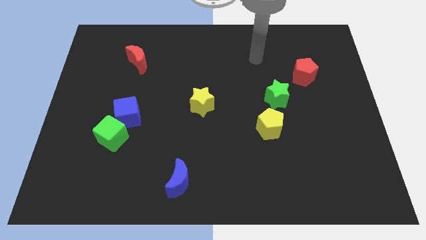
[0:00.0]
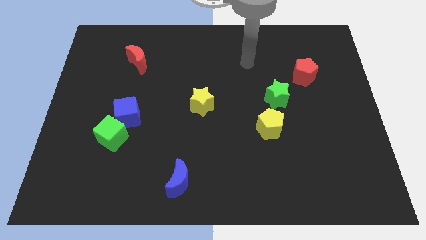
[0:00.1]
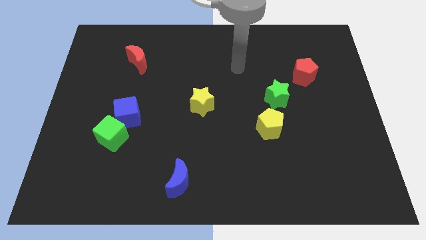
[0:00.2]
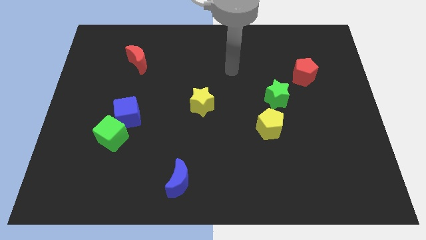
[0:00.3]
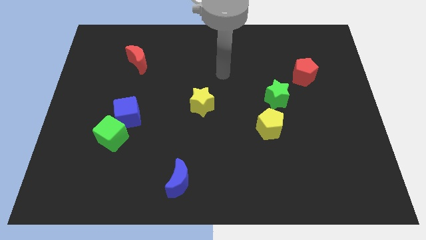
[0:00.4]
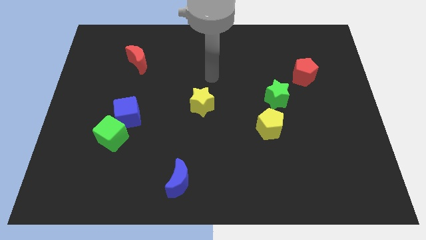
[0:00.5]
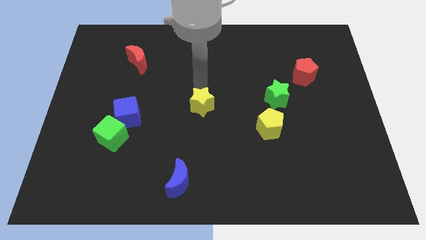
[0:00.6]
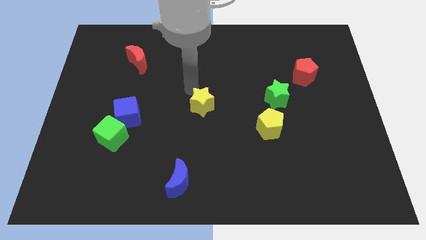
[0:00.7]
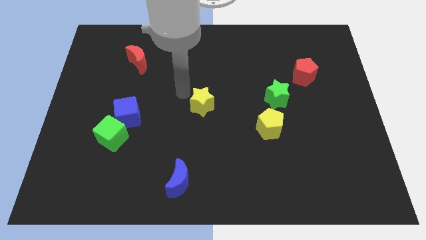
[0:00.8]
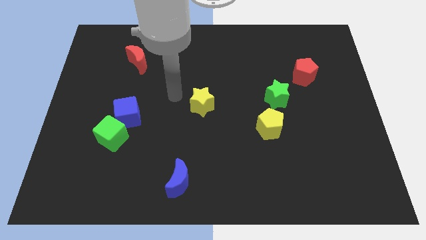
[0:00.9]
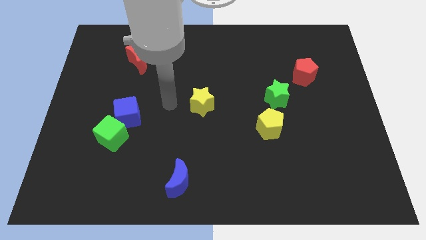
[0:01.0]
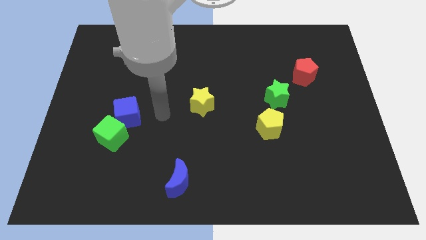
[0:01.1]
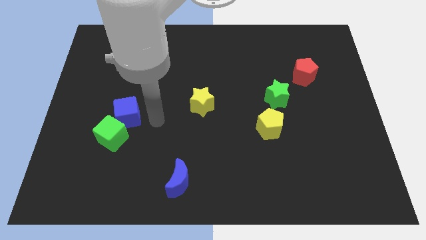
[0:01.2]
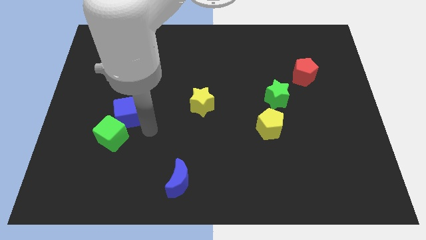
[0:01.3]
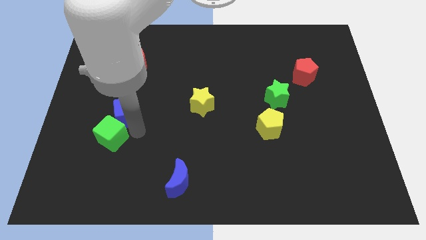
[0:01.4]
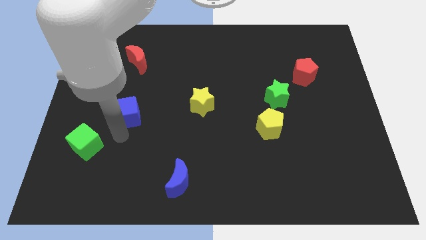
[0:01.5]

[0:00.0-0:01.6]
move the blue cube away from the green cube

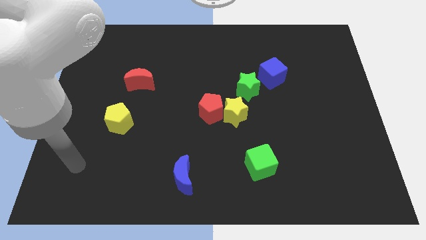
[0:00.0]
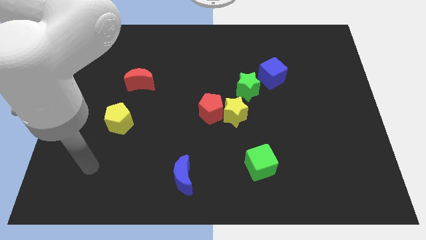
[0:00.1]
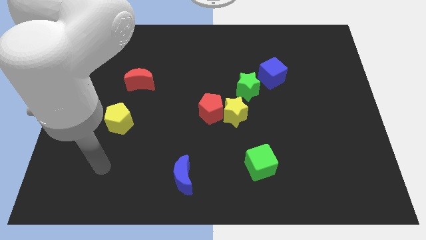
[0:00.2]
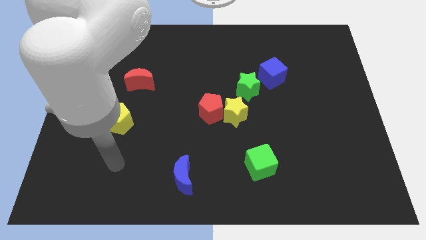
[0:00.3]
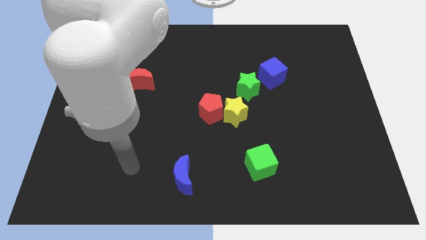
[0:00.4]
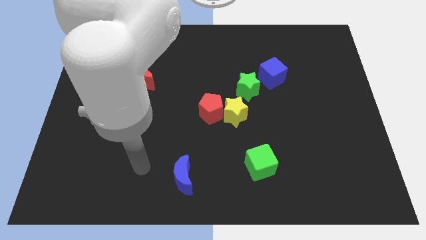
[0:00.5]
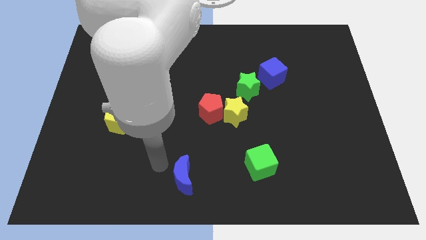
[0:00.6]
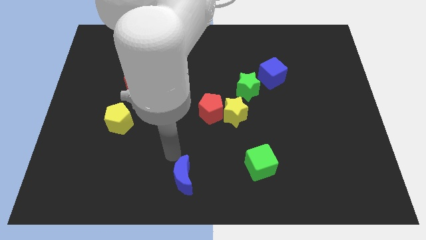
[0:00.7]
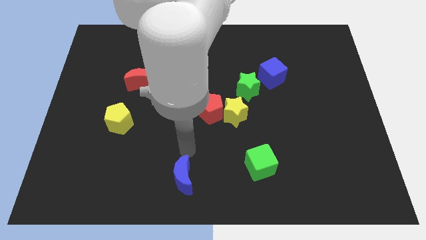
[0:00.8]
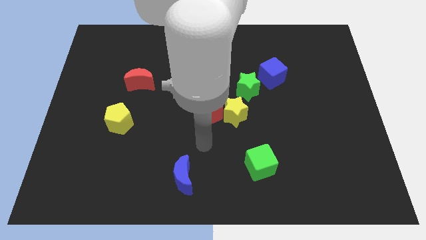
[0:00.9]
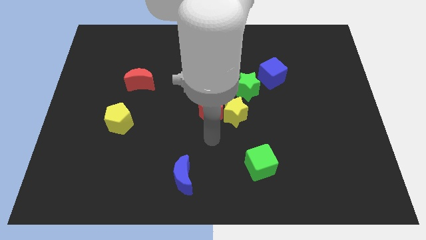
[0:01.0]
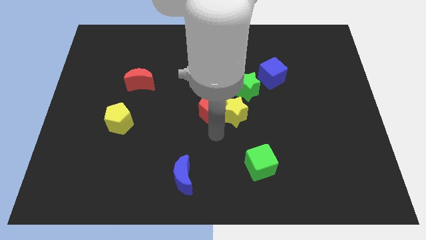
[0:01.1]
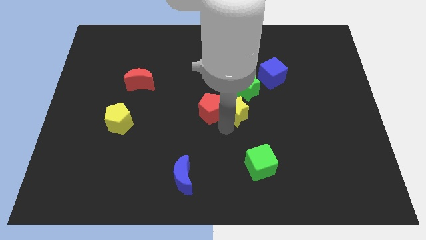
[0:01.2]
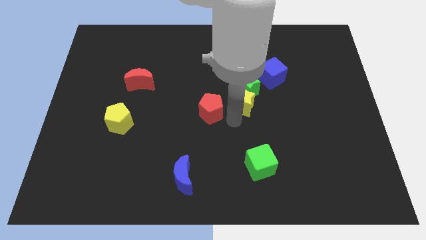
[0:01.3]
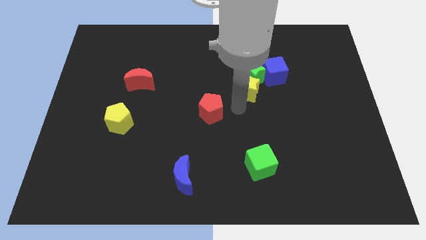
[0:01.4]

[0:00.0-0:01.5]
separate the red pentagon from the yellow star

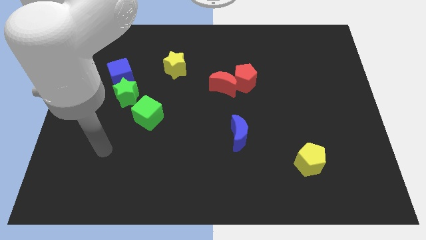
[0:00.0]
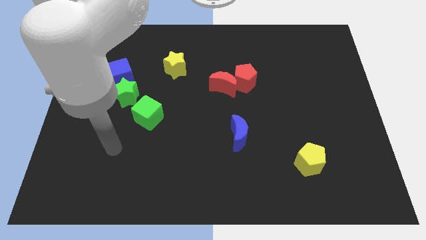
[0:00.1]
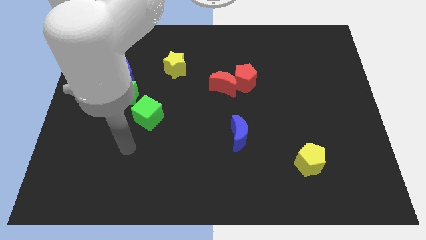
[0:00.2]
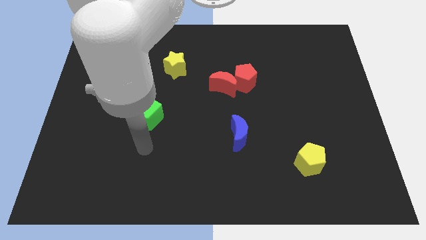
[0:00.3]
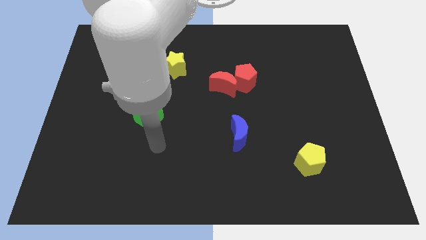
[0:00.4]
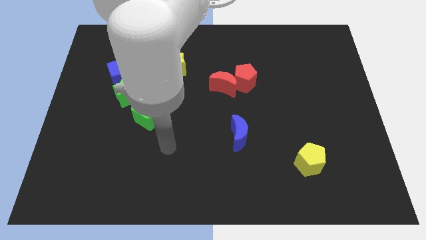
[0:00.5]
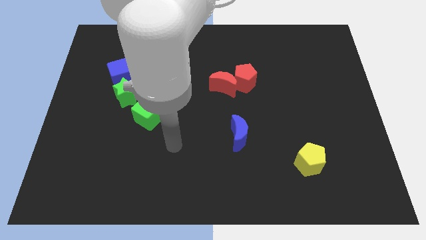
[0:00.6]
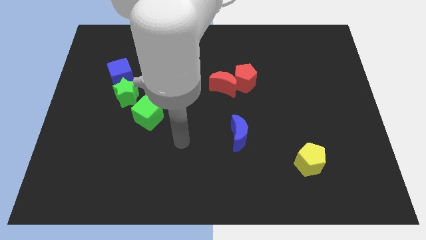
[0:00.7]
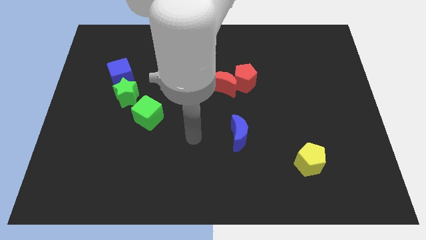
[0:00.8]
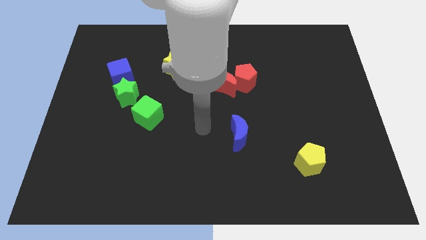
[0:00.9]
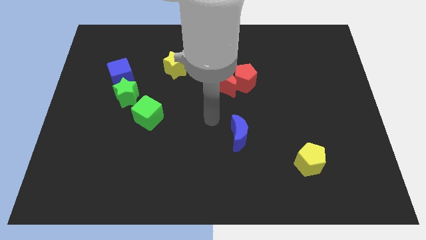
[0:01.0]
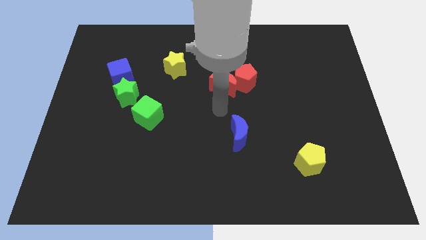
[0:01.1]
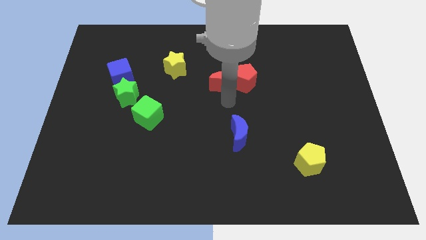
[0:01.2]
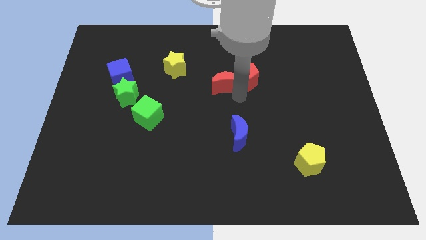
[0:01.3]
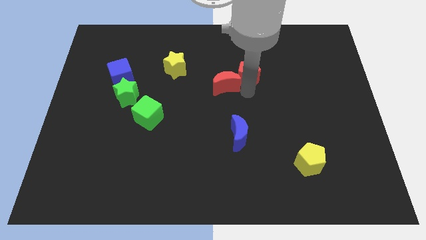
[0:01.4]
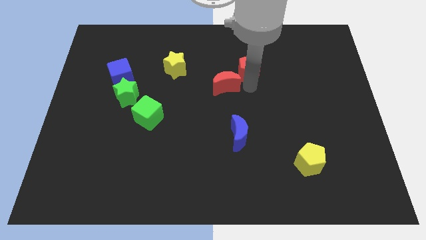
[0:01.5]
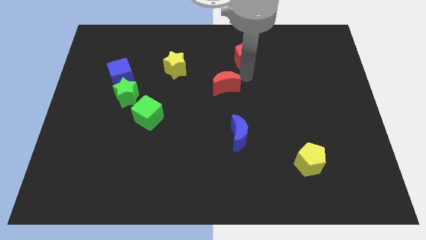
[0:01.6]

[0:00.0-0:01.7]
pull the red moon apart from the red pentagon

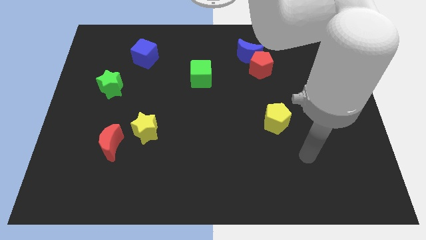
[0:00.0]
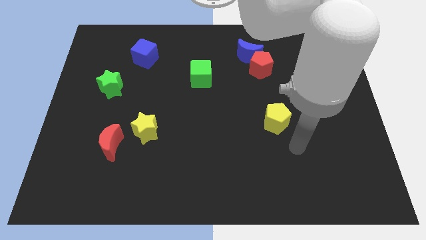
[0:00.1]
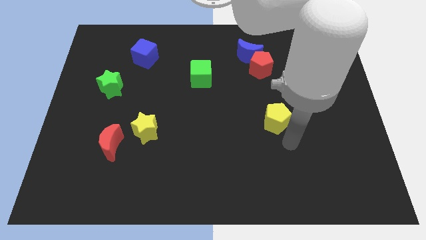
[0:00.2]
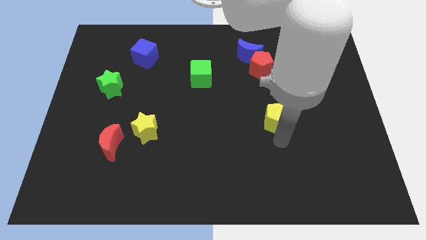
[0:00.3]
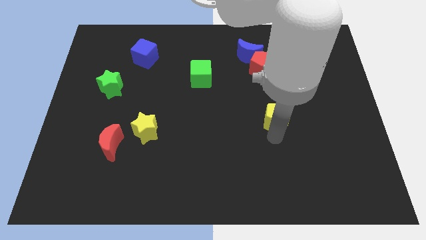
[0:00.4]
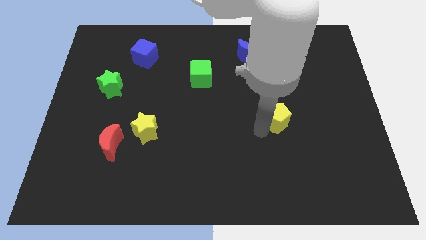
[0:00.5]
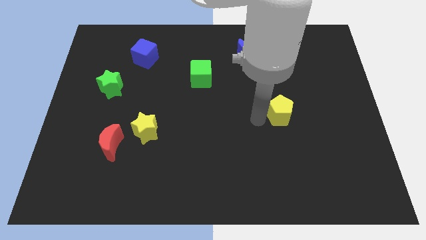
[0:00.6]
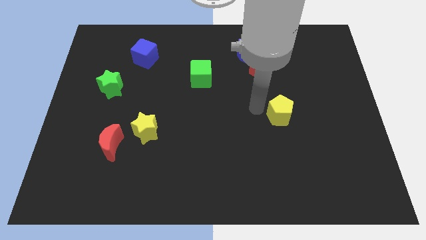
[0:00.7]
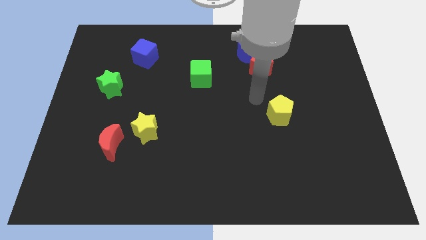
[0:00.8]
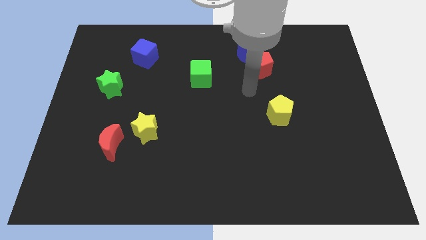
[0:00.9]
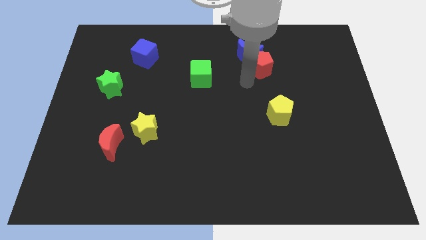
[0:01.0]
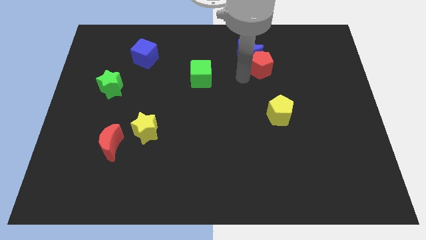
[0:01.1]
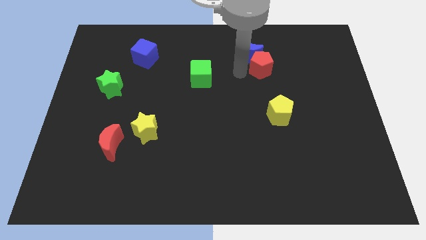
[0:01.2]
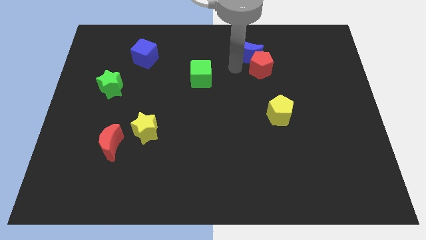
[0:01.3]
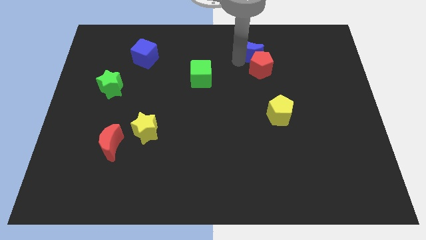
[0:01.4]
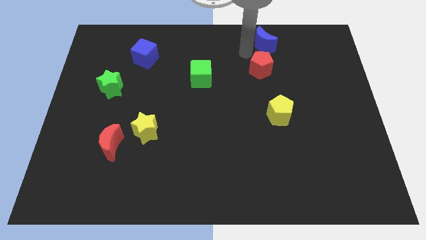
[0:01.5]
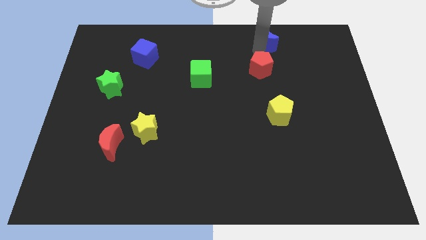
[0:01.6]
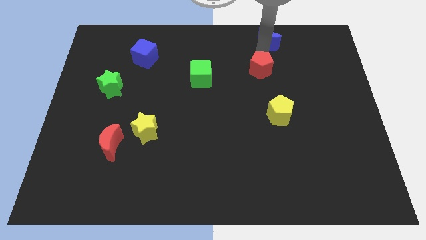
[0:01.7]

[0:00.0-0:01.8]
separate the red pentagon from the blue moon

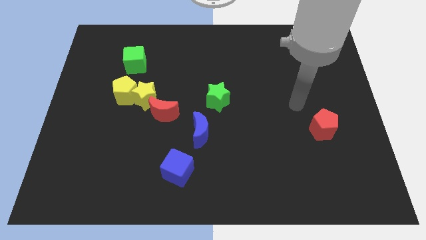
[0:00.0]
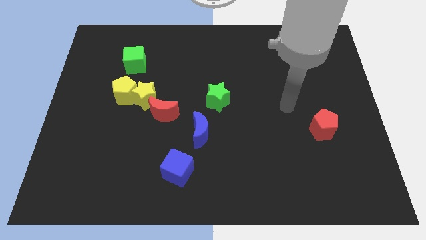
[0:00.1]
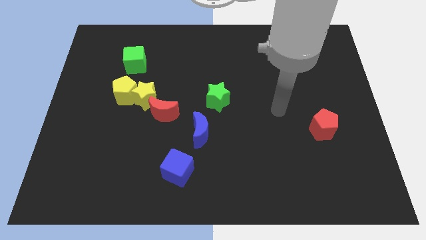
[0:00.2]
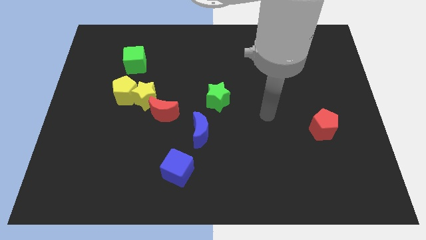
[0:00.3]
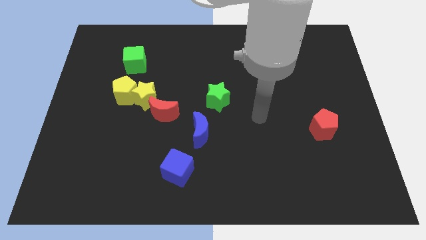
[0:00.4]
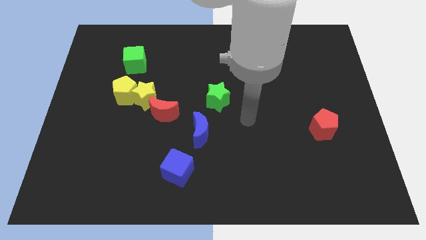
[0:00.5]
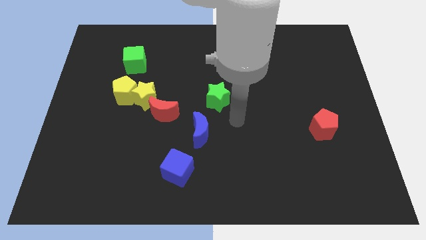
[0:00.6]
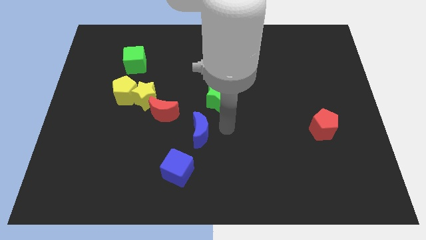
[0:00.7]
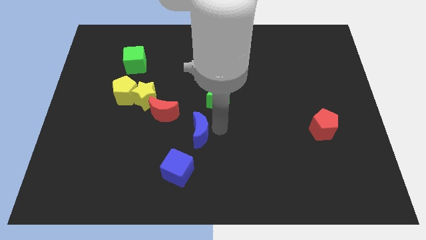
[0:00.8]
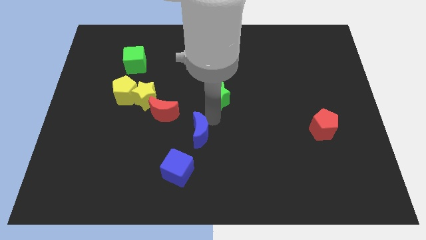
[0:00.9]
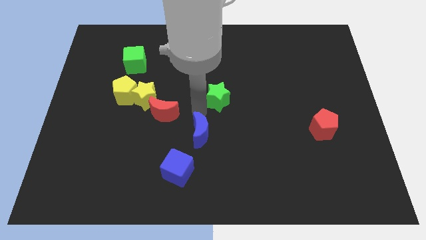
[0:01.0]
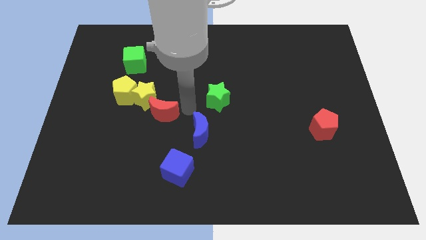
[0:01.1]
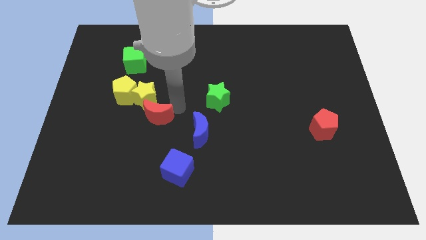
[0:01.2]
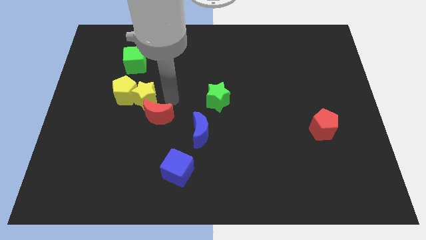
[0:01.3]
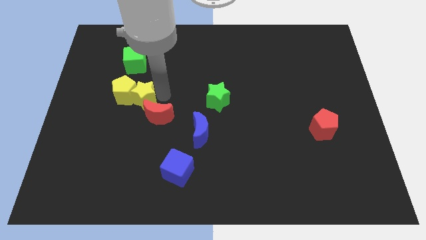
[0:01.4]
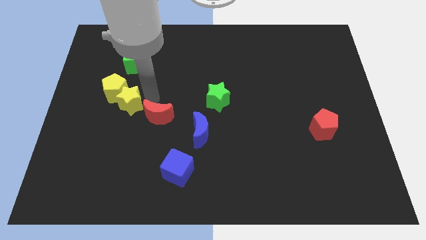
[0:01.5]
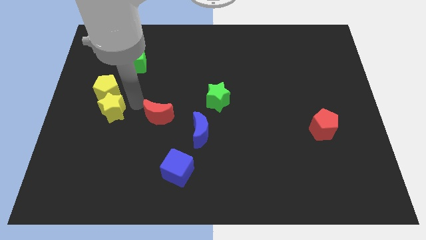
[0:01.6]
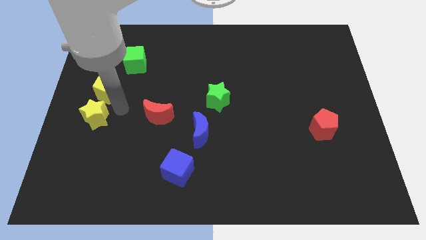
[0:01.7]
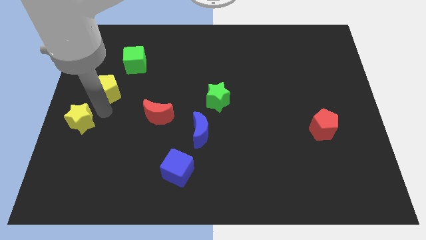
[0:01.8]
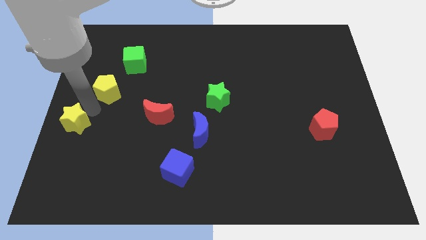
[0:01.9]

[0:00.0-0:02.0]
separate the yellow pentagon from the yellow star

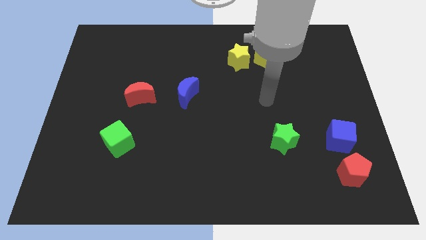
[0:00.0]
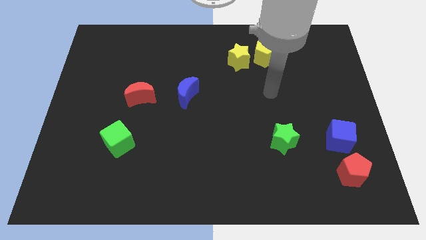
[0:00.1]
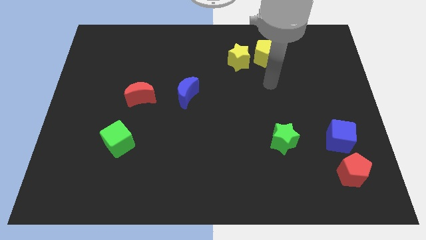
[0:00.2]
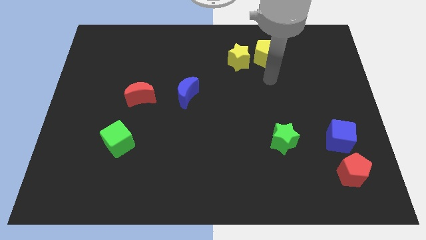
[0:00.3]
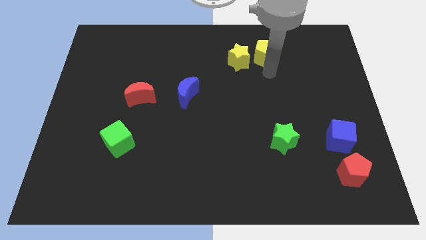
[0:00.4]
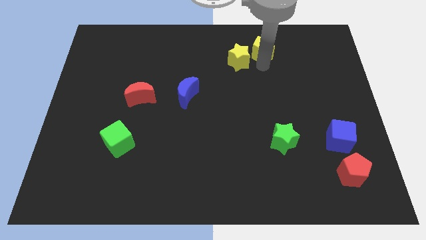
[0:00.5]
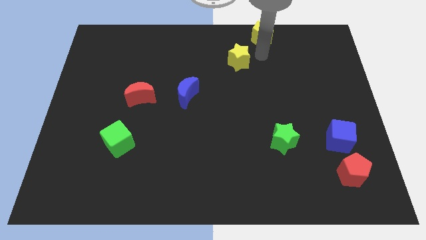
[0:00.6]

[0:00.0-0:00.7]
move the yellow star away from the yellow pentagon
